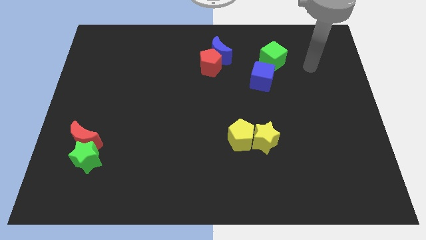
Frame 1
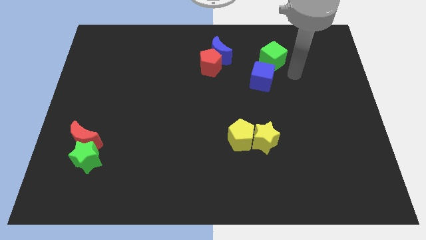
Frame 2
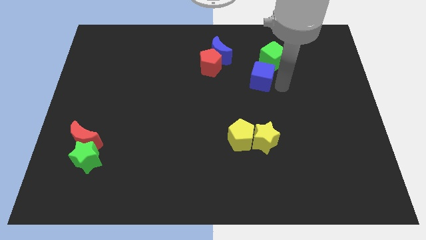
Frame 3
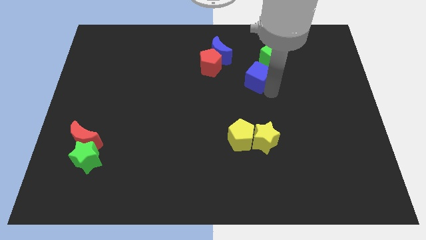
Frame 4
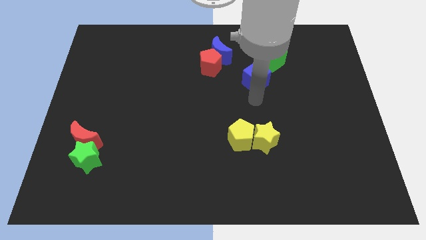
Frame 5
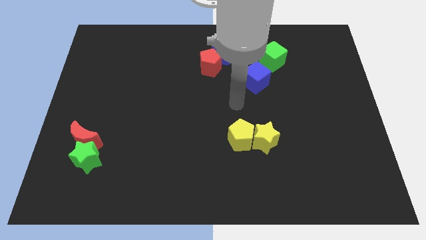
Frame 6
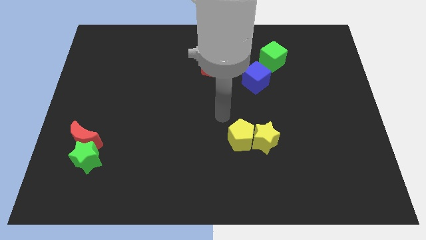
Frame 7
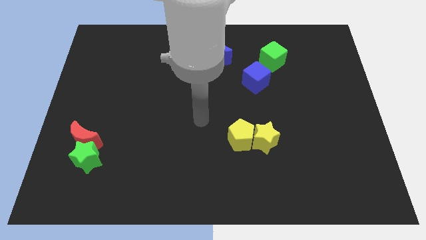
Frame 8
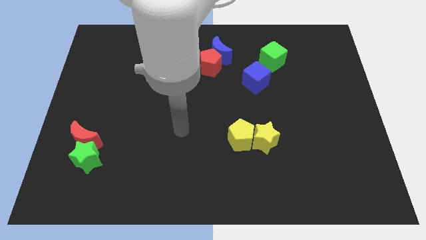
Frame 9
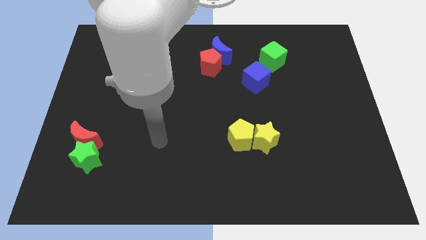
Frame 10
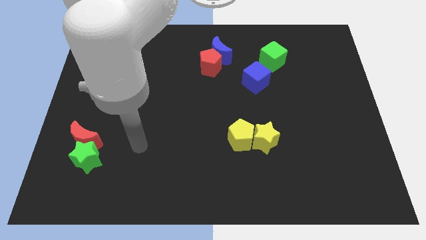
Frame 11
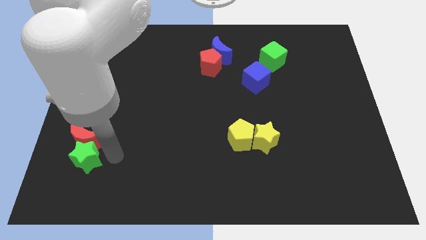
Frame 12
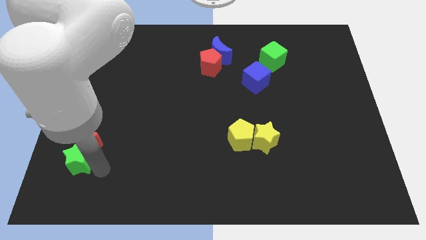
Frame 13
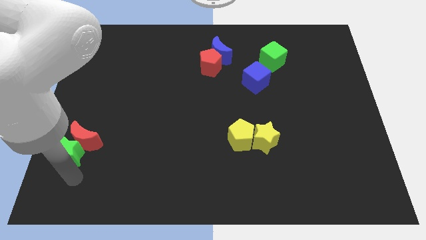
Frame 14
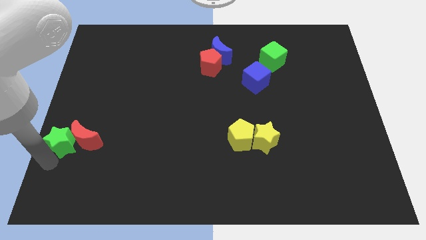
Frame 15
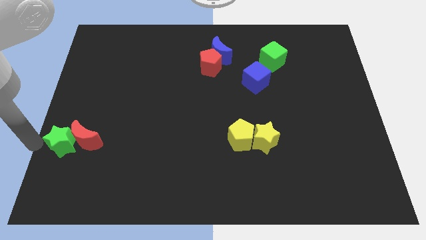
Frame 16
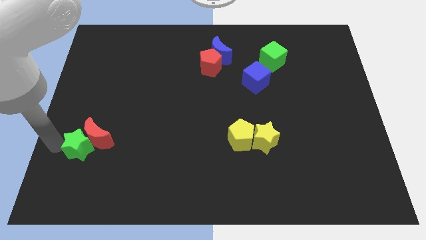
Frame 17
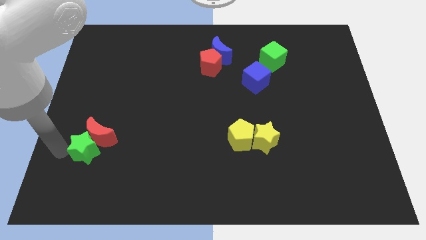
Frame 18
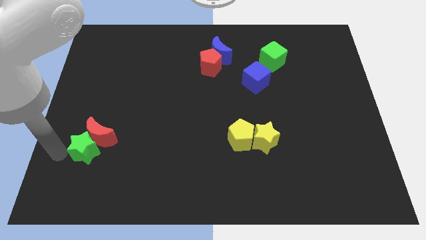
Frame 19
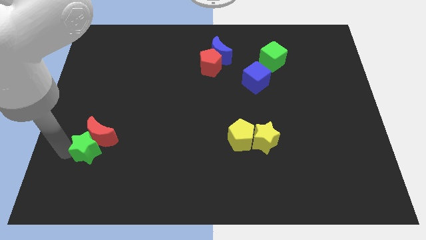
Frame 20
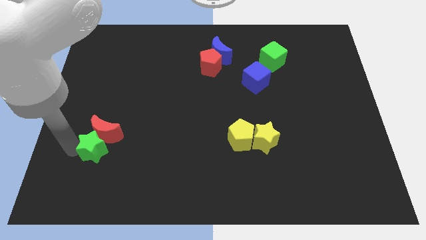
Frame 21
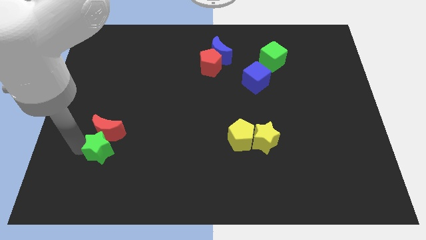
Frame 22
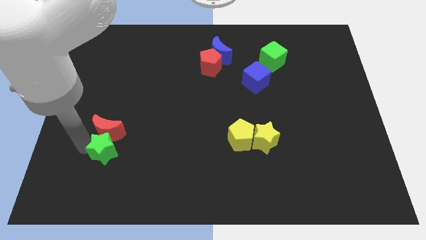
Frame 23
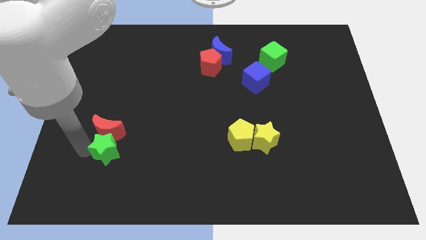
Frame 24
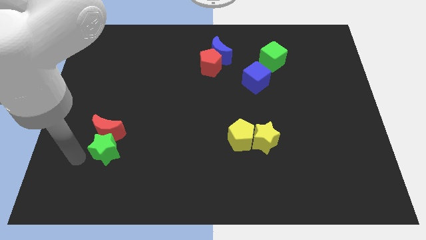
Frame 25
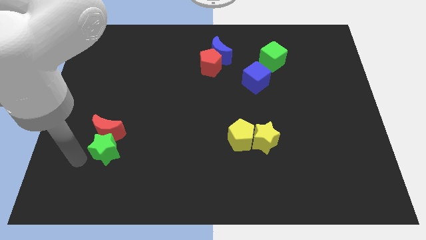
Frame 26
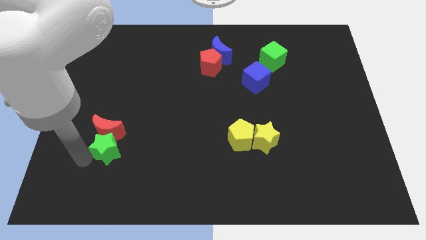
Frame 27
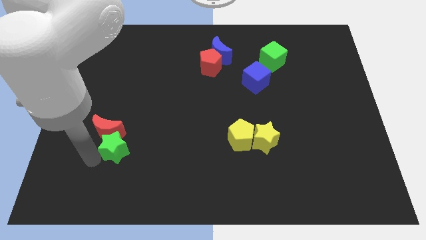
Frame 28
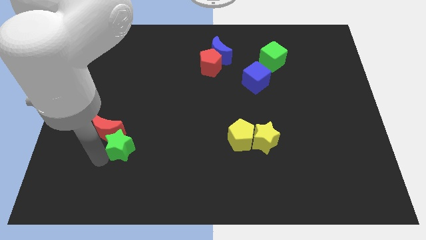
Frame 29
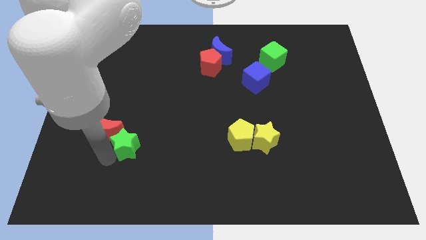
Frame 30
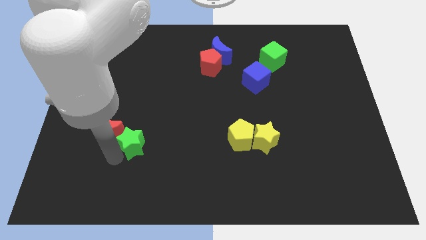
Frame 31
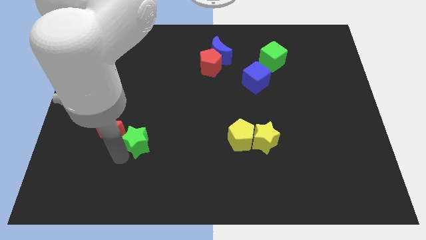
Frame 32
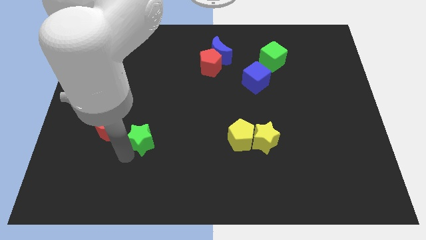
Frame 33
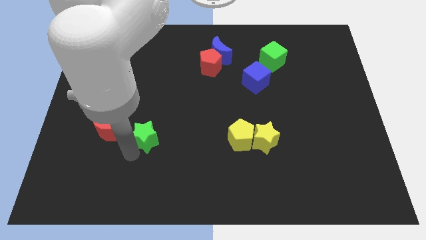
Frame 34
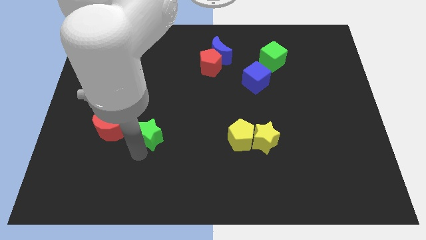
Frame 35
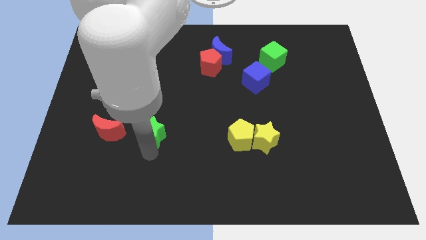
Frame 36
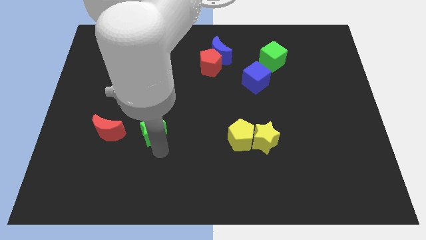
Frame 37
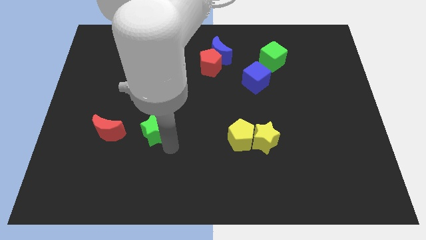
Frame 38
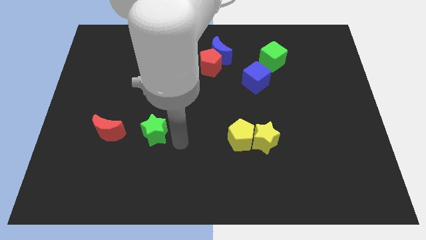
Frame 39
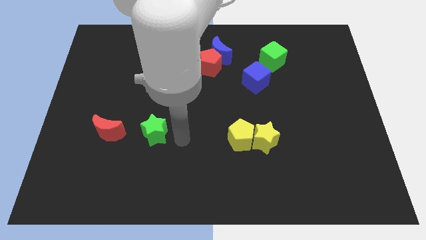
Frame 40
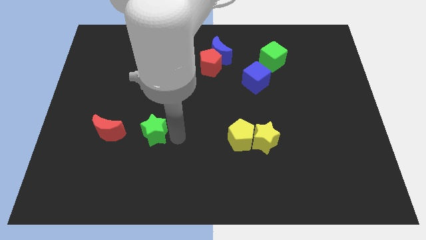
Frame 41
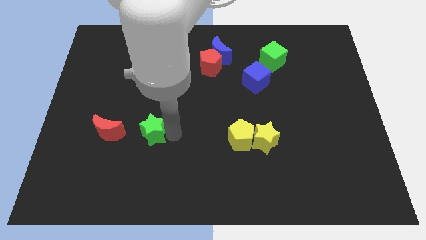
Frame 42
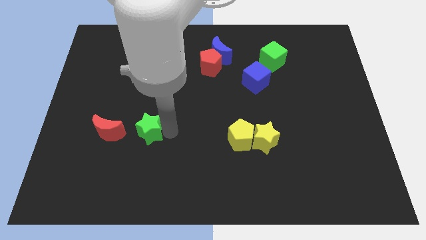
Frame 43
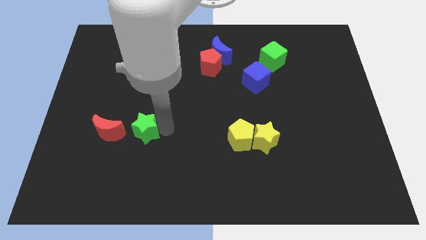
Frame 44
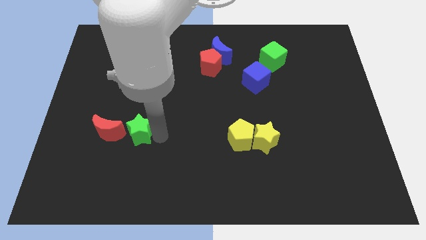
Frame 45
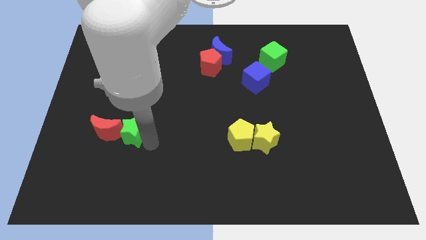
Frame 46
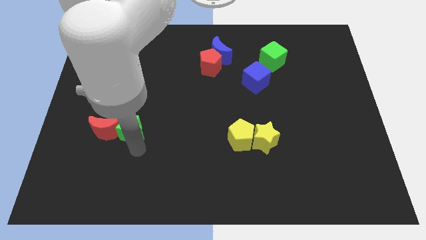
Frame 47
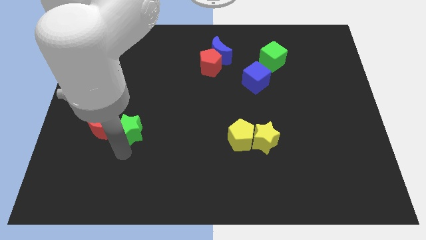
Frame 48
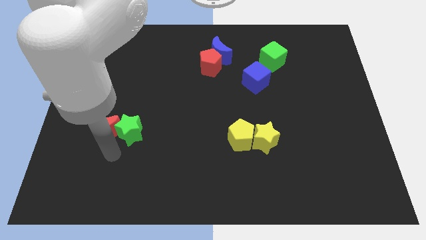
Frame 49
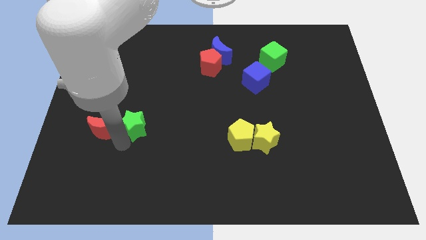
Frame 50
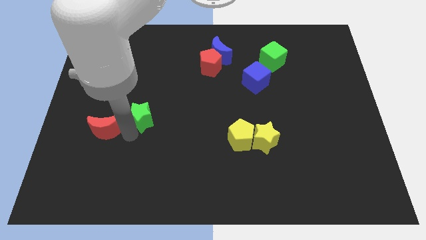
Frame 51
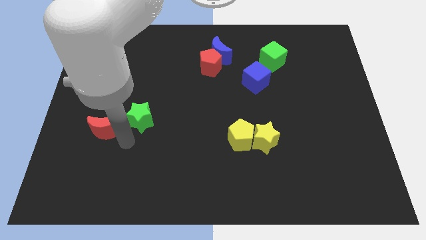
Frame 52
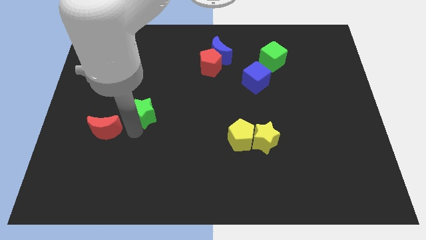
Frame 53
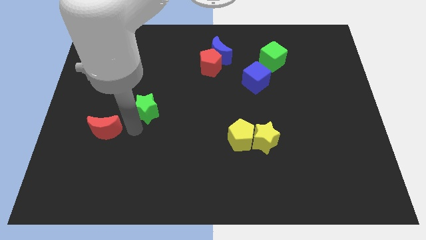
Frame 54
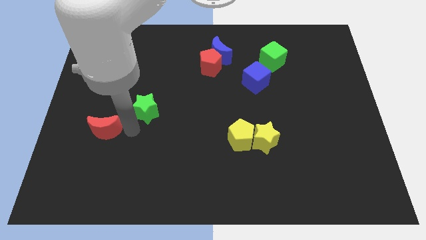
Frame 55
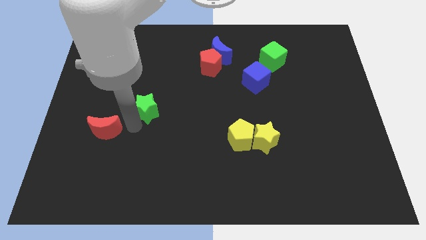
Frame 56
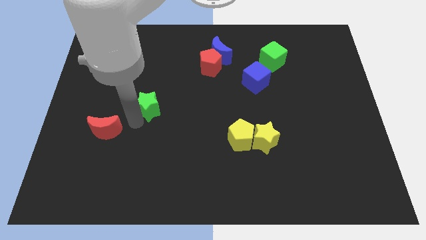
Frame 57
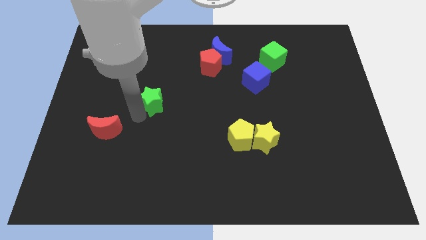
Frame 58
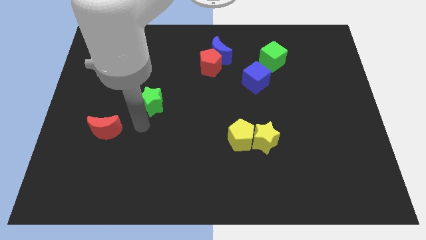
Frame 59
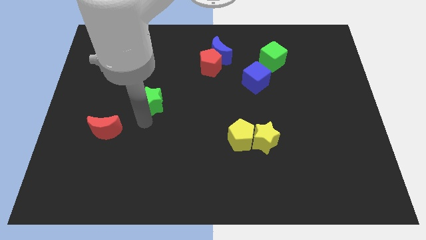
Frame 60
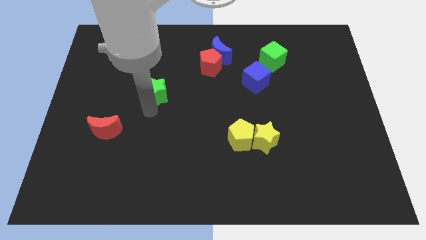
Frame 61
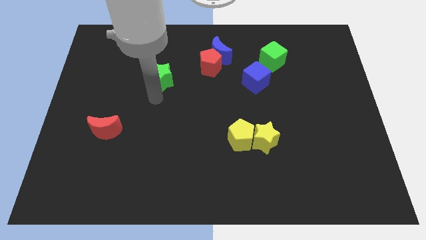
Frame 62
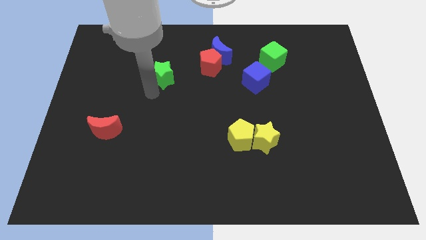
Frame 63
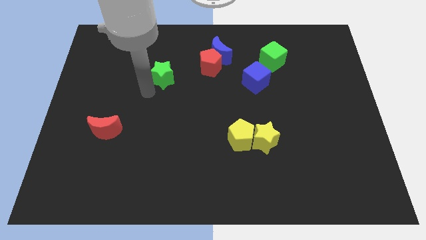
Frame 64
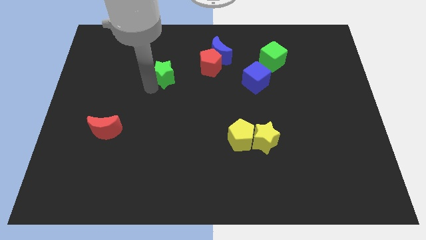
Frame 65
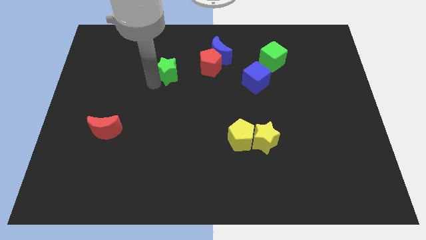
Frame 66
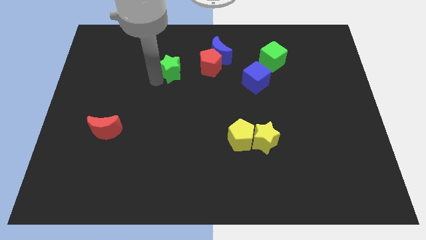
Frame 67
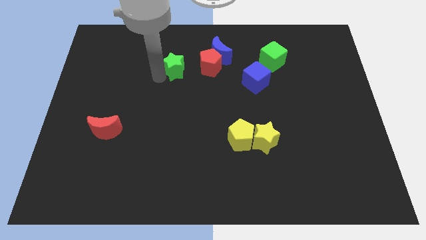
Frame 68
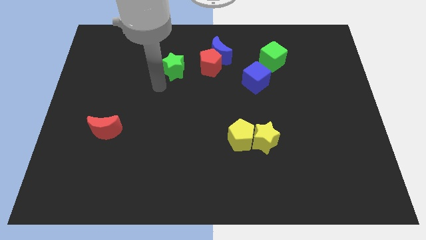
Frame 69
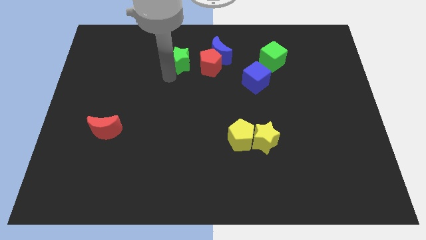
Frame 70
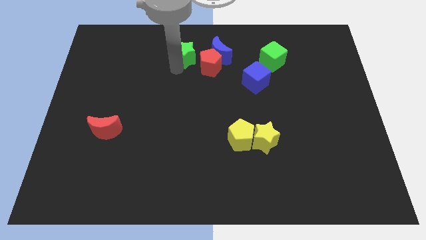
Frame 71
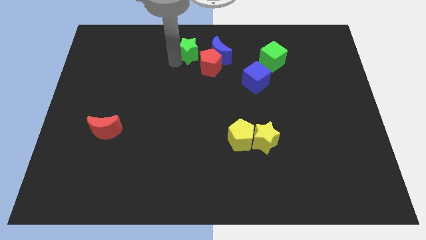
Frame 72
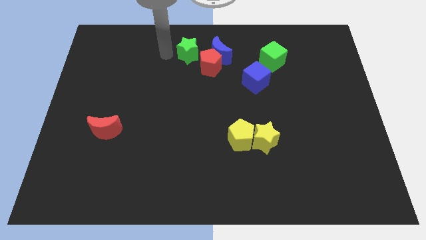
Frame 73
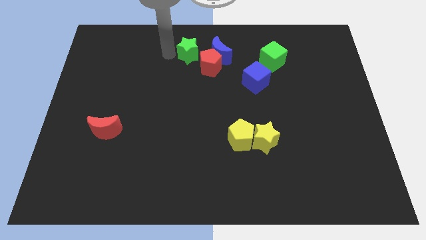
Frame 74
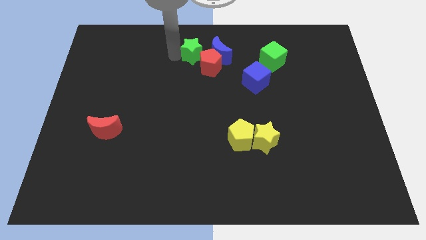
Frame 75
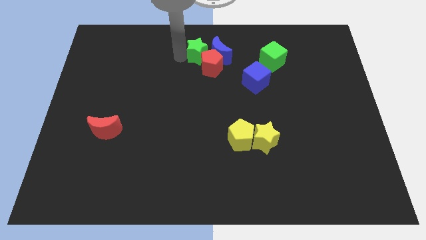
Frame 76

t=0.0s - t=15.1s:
push the green star towards the blue moon

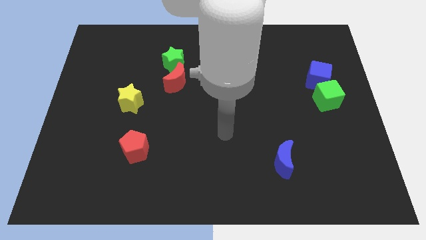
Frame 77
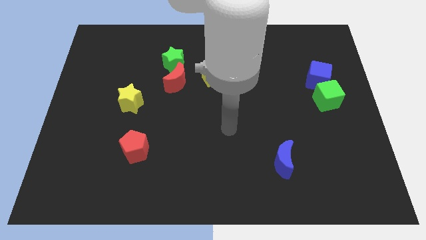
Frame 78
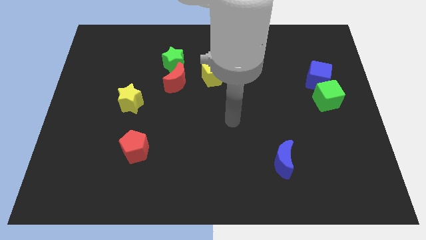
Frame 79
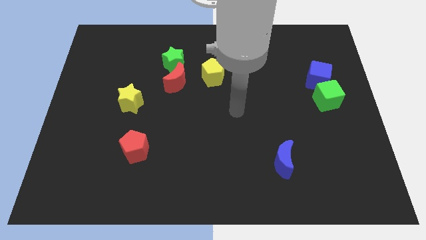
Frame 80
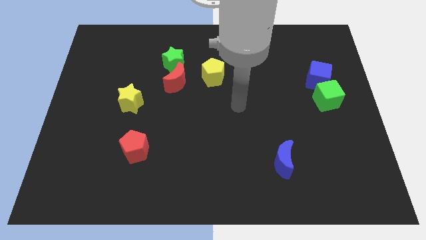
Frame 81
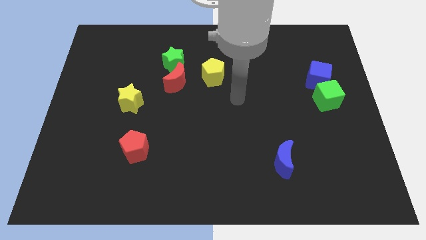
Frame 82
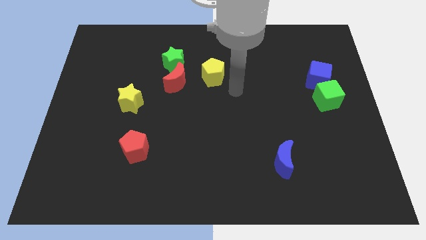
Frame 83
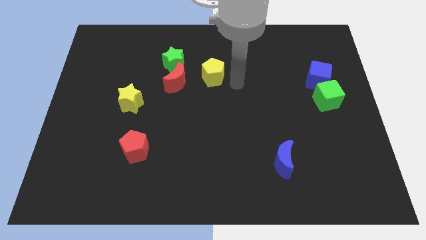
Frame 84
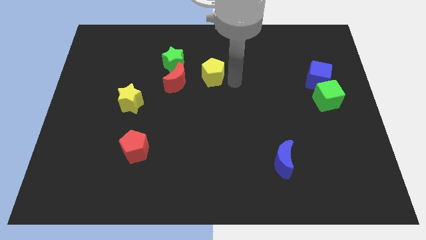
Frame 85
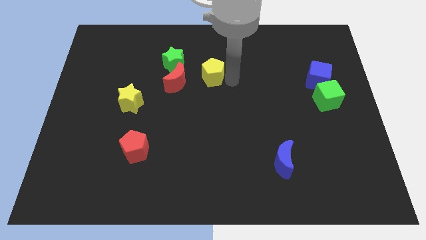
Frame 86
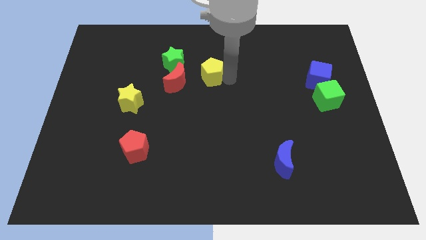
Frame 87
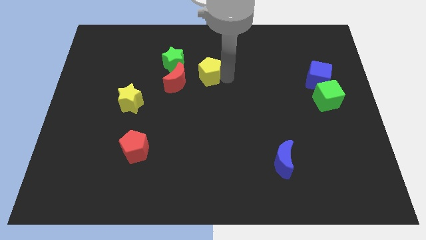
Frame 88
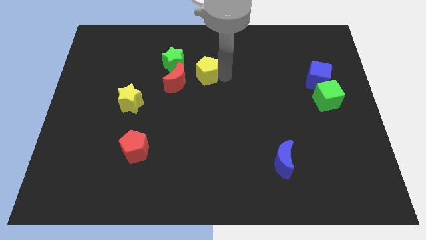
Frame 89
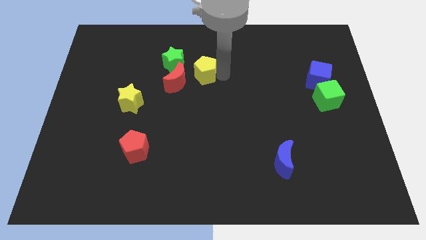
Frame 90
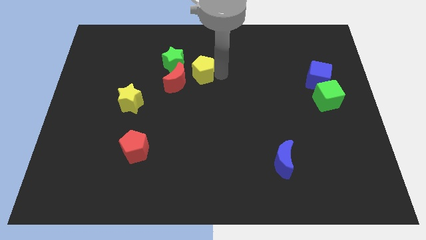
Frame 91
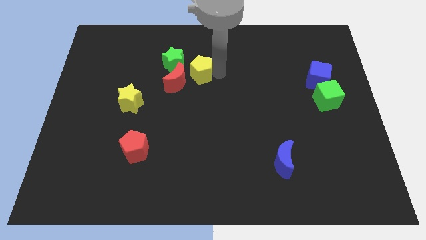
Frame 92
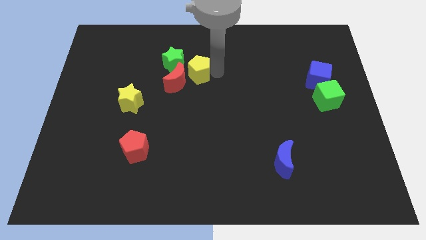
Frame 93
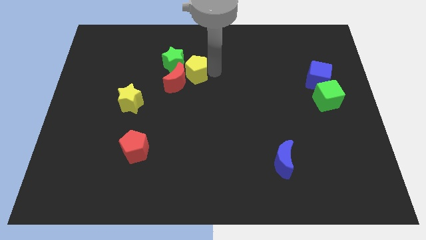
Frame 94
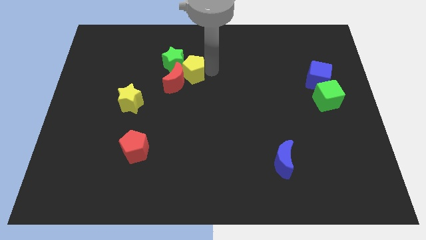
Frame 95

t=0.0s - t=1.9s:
put the yellow pentagon close to the green star
